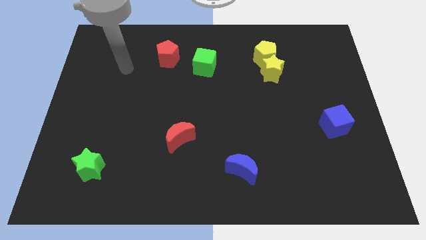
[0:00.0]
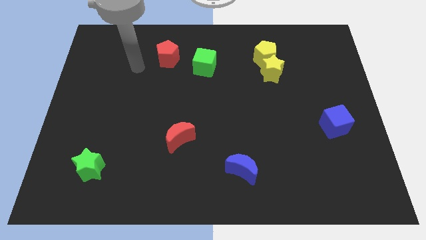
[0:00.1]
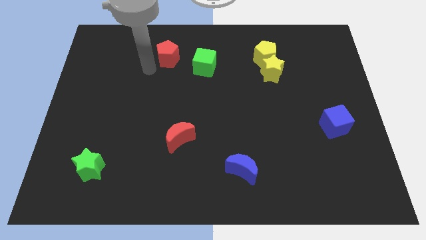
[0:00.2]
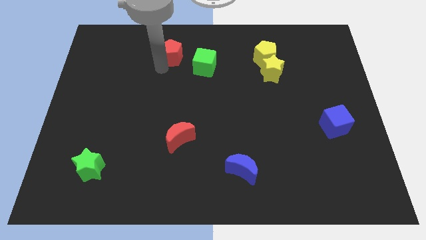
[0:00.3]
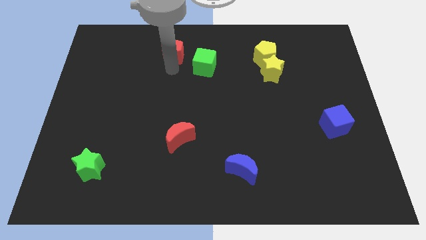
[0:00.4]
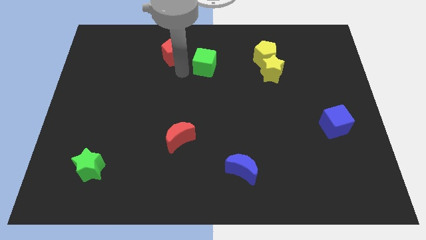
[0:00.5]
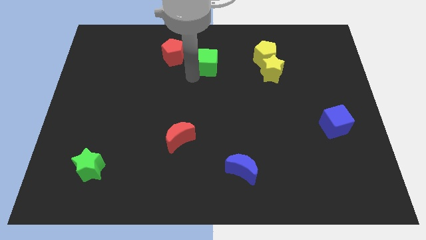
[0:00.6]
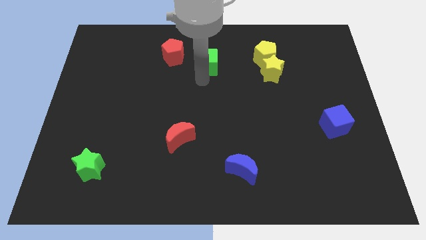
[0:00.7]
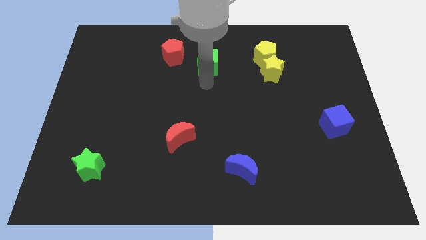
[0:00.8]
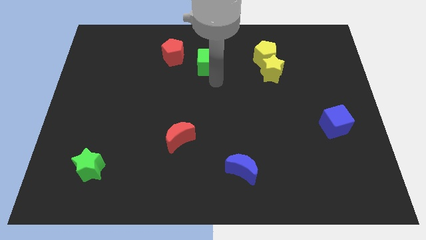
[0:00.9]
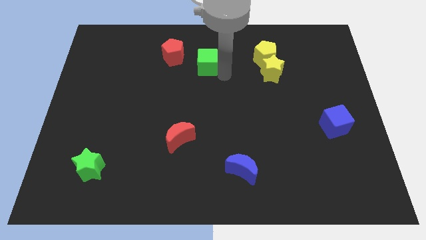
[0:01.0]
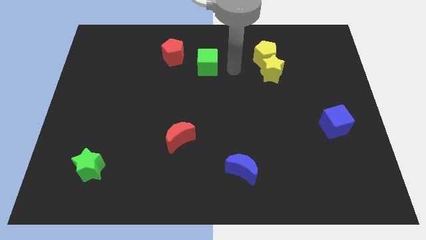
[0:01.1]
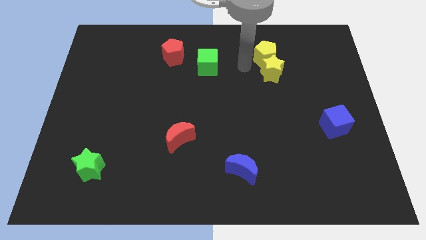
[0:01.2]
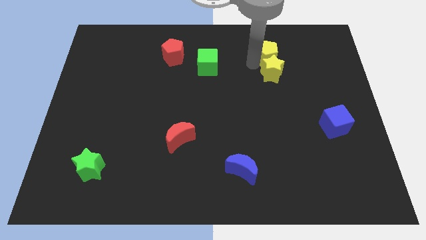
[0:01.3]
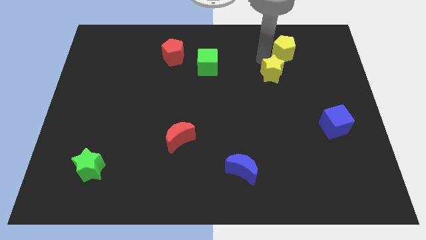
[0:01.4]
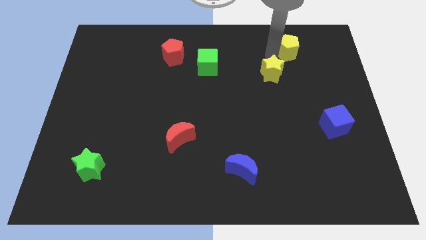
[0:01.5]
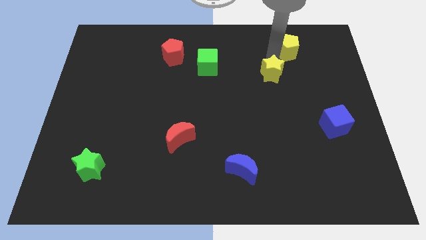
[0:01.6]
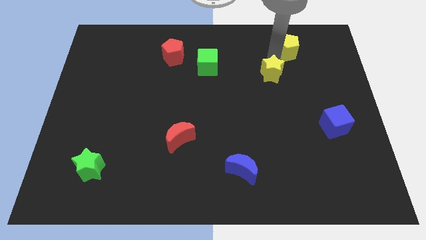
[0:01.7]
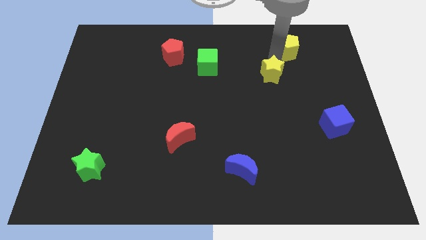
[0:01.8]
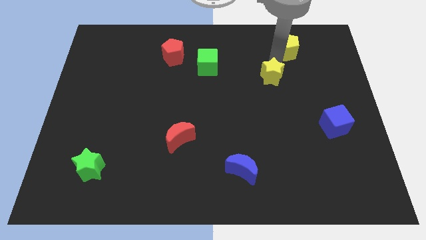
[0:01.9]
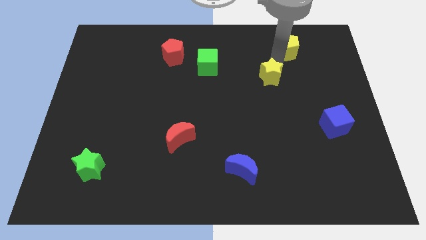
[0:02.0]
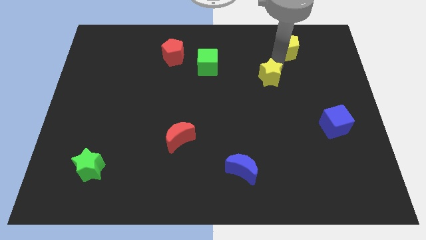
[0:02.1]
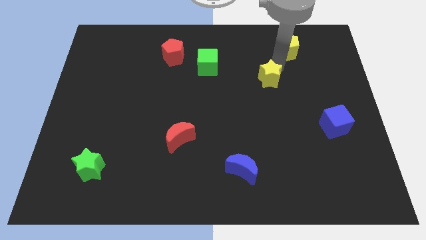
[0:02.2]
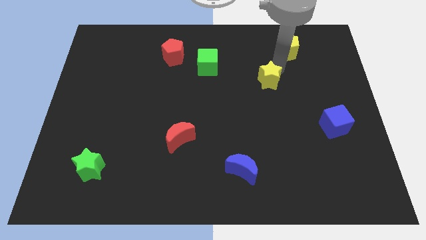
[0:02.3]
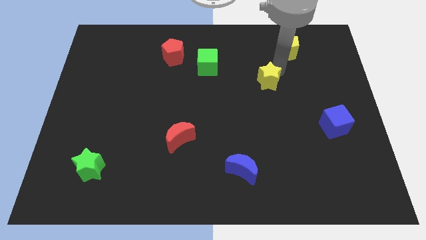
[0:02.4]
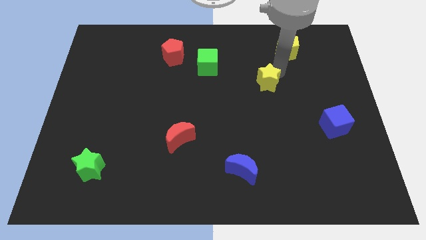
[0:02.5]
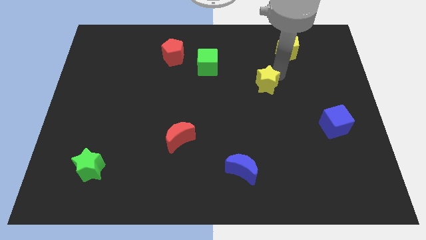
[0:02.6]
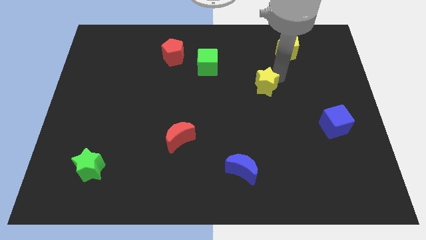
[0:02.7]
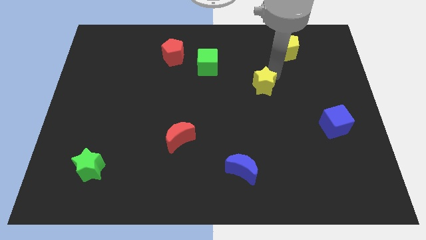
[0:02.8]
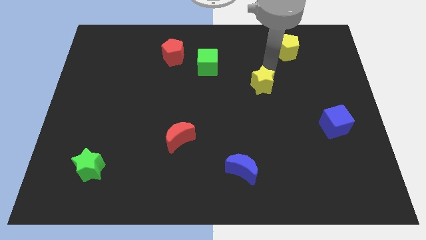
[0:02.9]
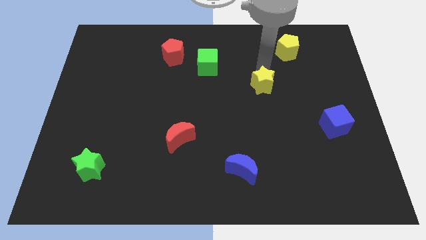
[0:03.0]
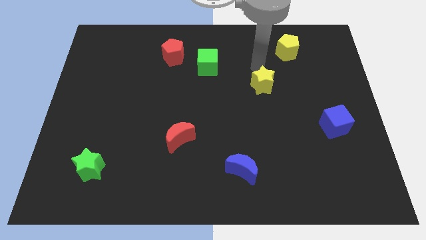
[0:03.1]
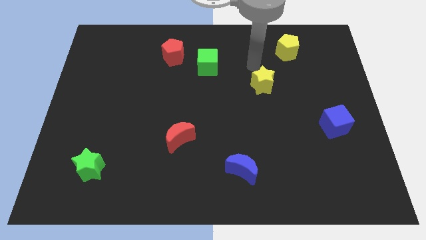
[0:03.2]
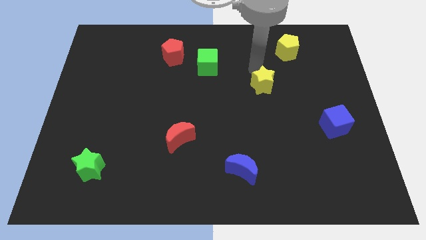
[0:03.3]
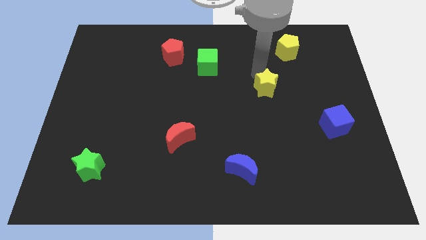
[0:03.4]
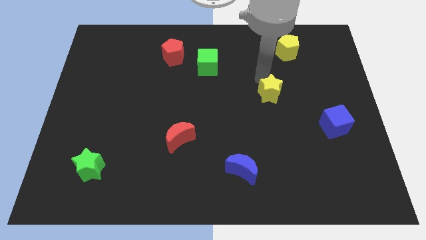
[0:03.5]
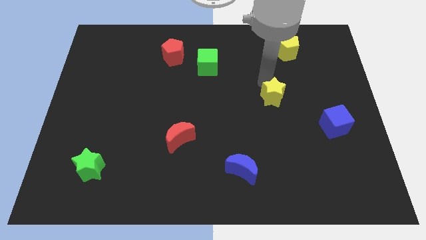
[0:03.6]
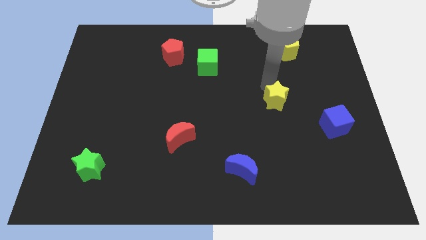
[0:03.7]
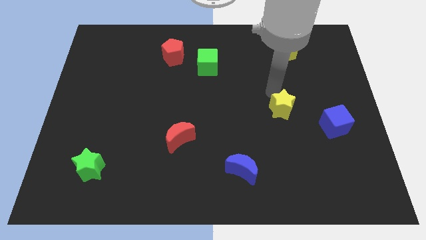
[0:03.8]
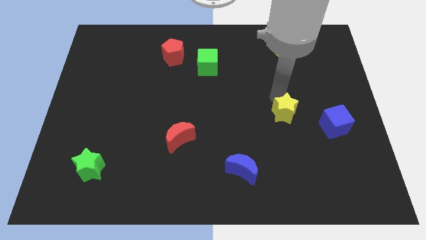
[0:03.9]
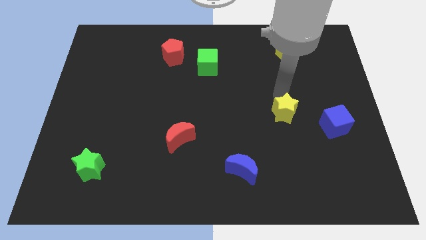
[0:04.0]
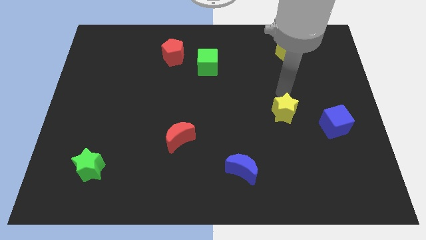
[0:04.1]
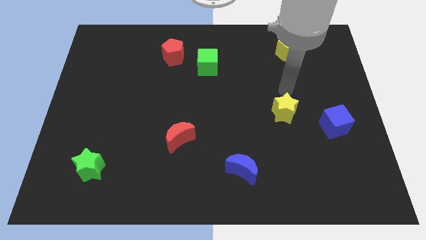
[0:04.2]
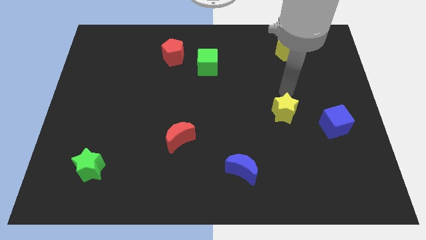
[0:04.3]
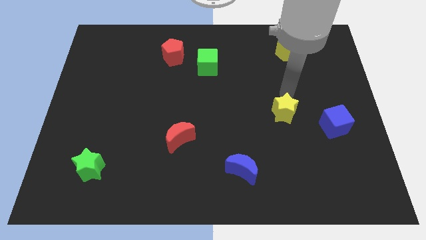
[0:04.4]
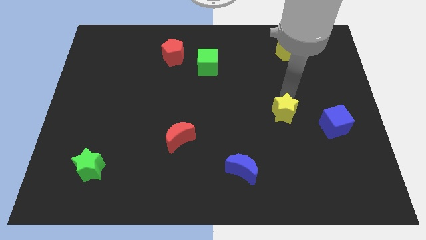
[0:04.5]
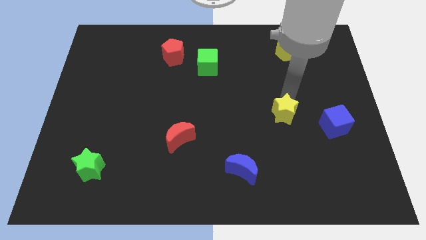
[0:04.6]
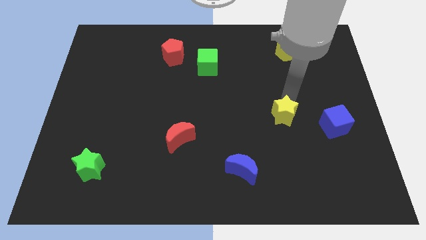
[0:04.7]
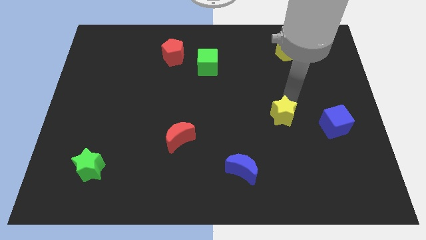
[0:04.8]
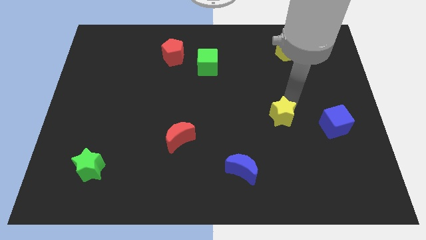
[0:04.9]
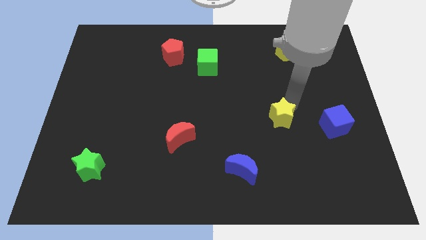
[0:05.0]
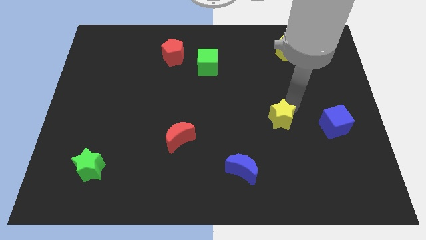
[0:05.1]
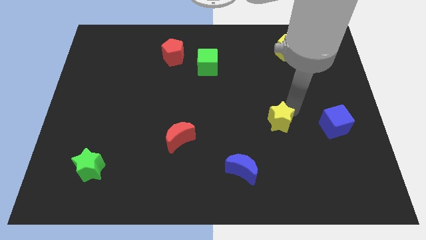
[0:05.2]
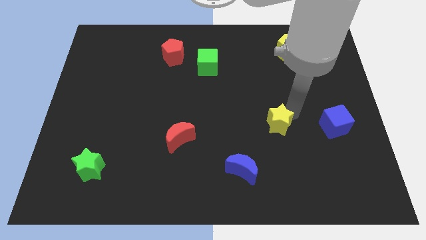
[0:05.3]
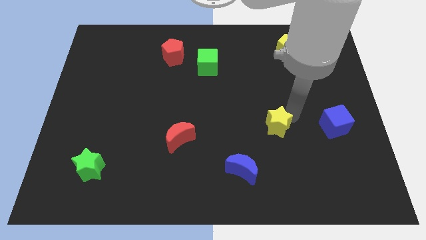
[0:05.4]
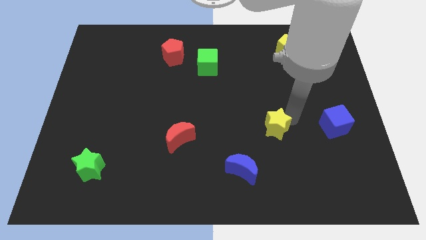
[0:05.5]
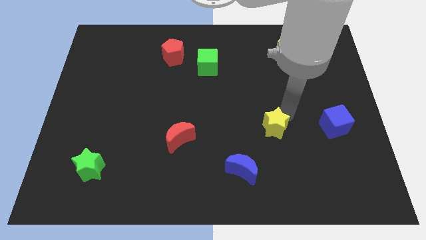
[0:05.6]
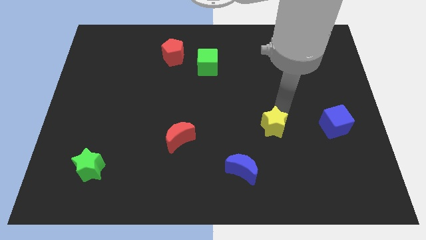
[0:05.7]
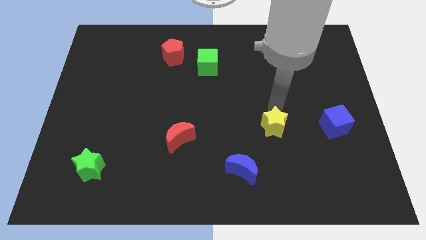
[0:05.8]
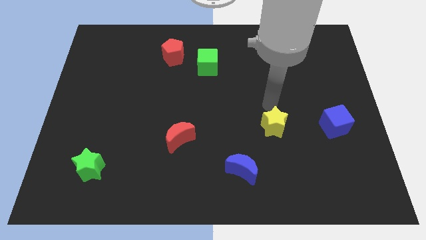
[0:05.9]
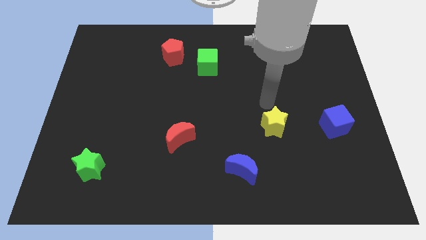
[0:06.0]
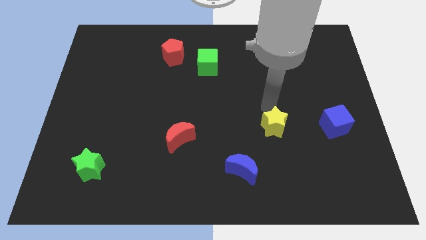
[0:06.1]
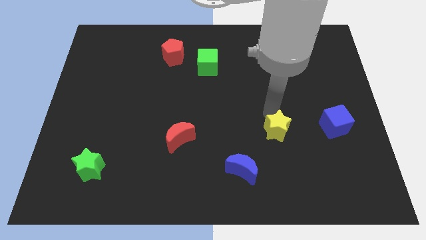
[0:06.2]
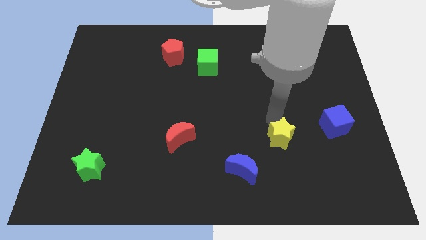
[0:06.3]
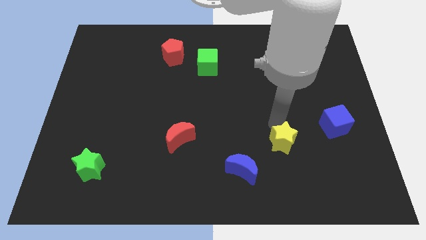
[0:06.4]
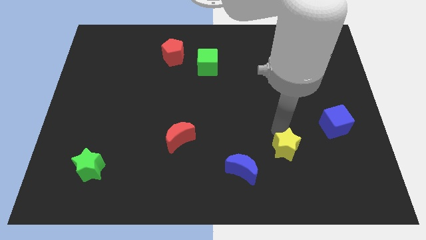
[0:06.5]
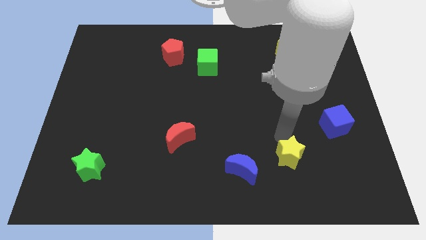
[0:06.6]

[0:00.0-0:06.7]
move the yellow star to the right of the blue moon
